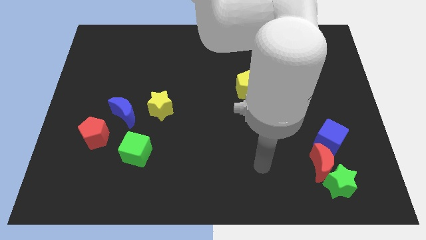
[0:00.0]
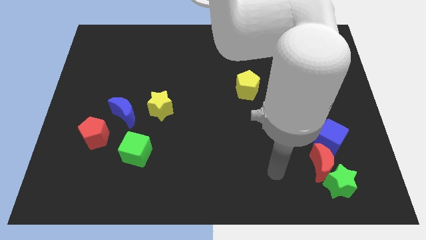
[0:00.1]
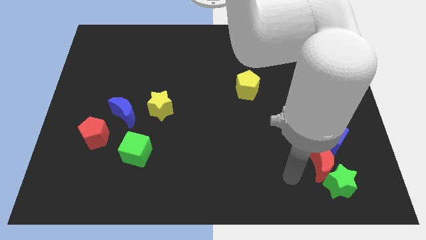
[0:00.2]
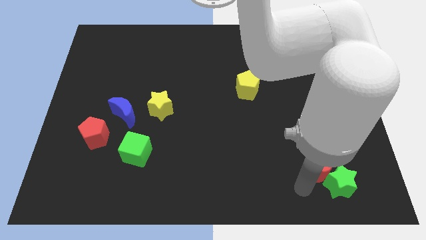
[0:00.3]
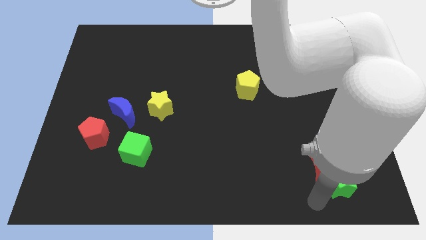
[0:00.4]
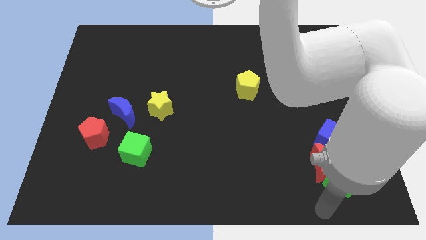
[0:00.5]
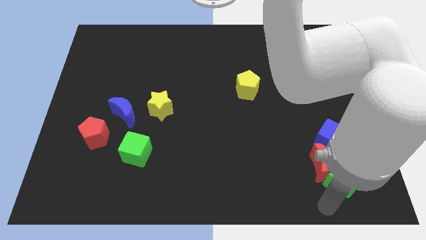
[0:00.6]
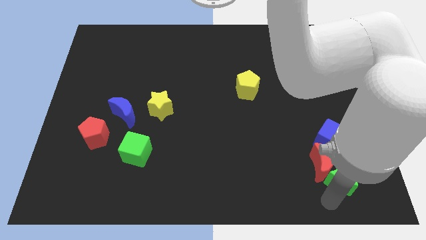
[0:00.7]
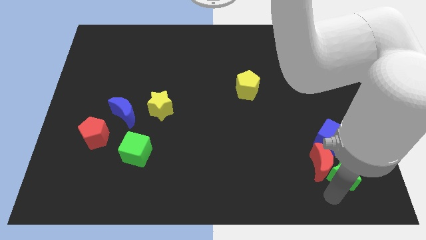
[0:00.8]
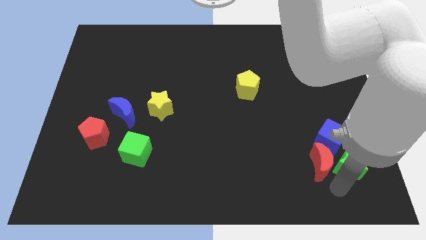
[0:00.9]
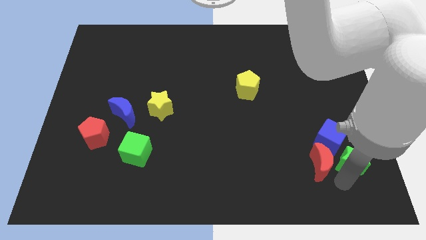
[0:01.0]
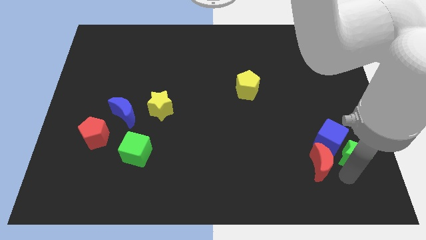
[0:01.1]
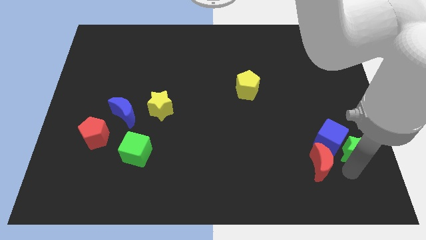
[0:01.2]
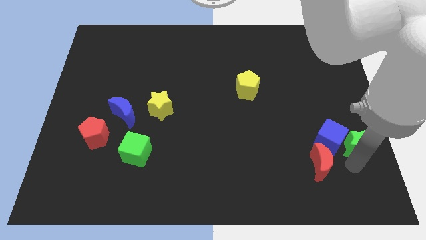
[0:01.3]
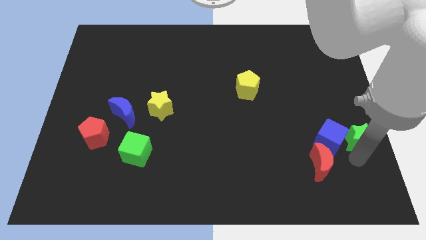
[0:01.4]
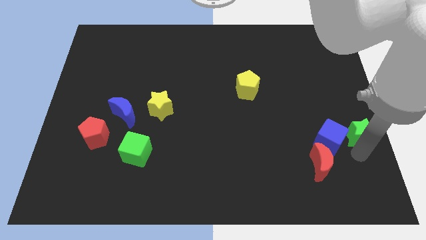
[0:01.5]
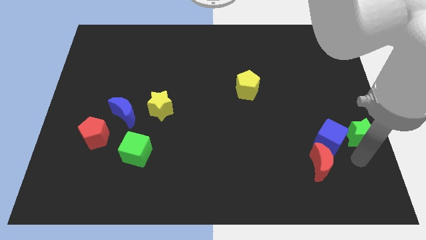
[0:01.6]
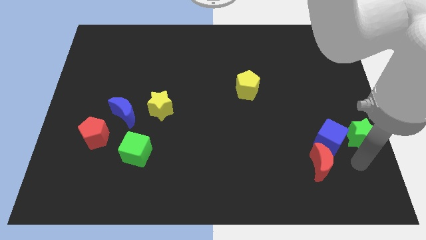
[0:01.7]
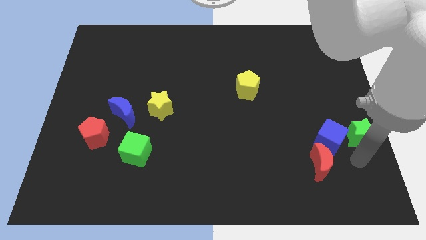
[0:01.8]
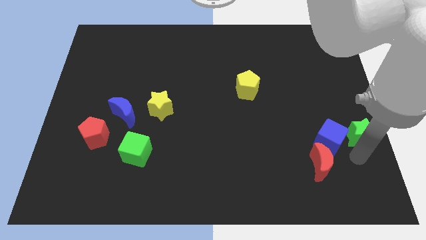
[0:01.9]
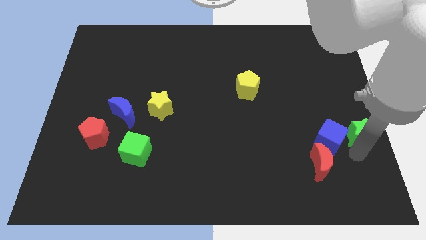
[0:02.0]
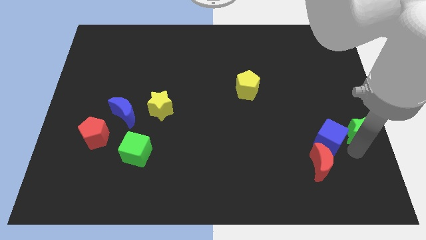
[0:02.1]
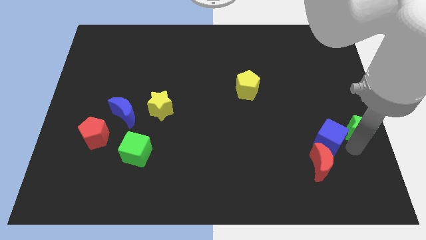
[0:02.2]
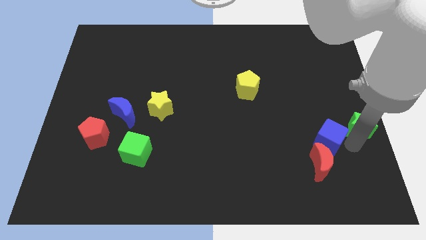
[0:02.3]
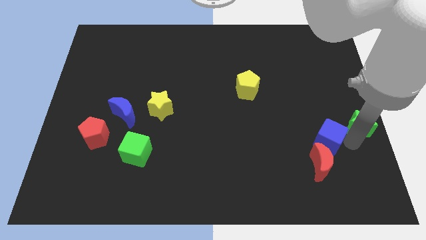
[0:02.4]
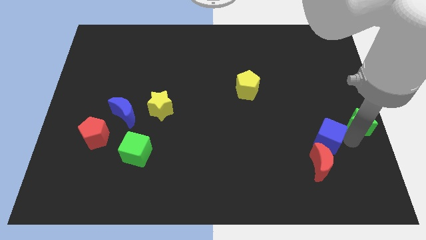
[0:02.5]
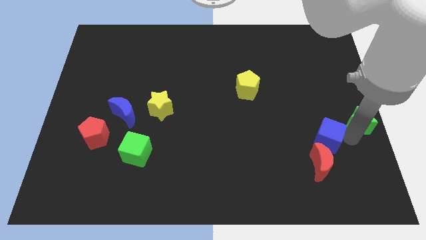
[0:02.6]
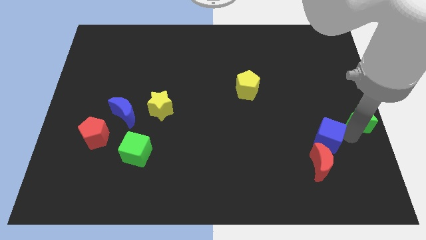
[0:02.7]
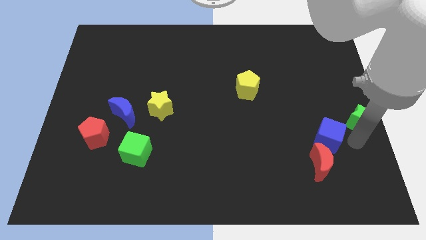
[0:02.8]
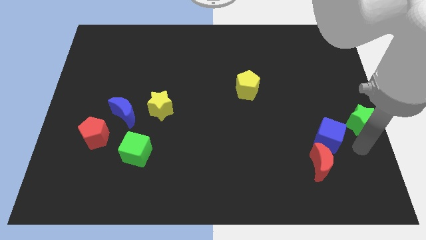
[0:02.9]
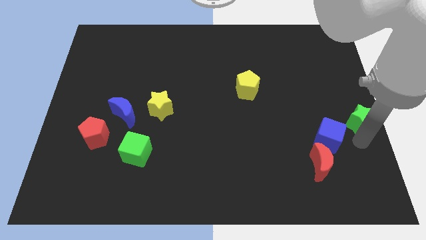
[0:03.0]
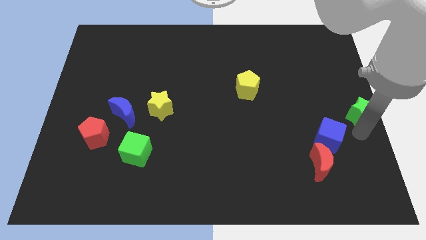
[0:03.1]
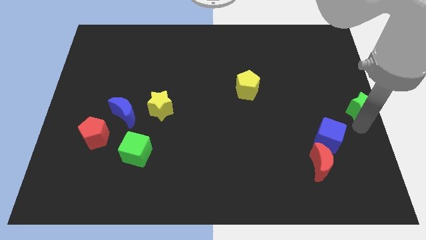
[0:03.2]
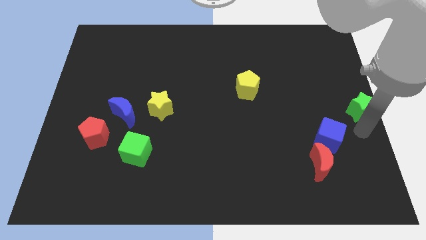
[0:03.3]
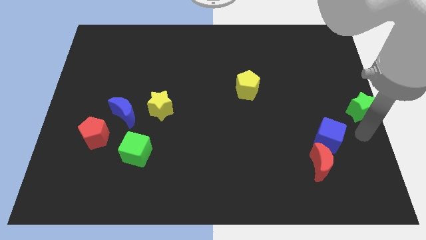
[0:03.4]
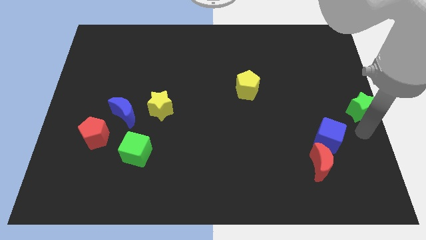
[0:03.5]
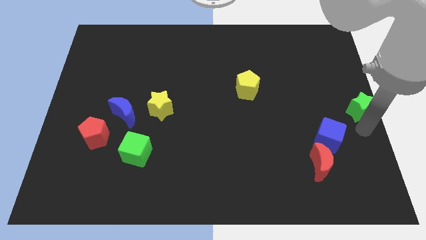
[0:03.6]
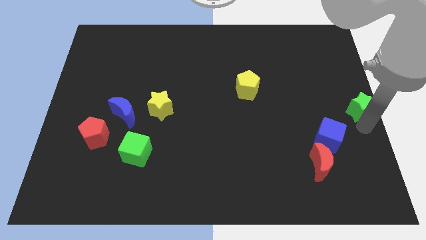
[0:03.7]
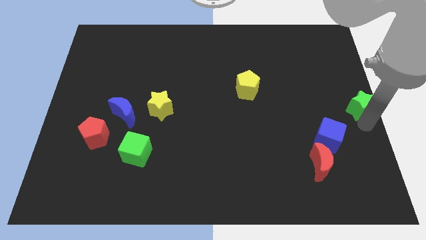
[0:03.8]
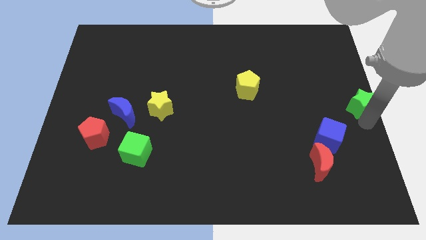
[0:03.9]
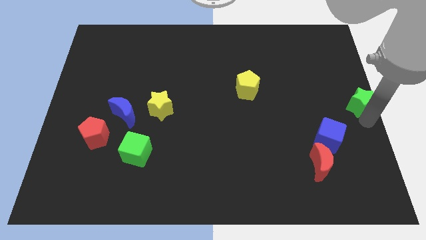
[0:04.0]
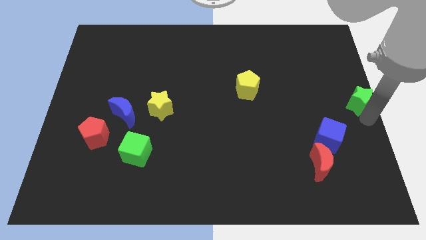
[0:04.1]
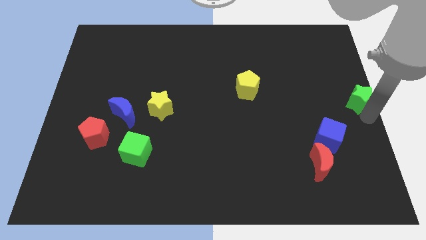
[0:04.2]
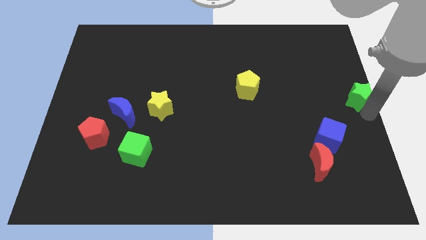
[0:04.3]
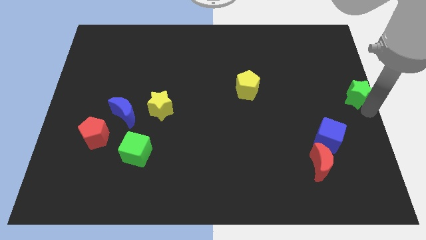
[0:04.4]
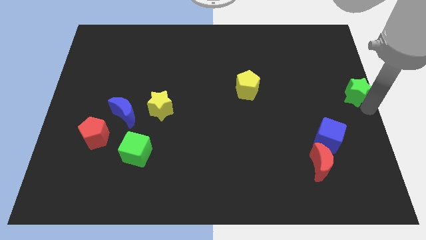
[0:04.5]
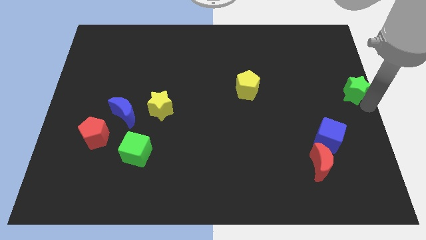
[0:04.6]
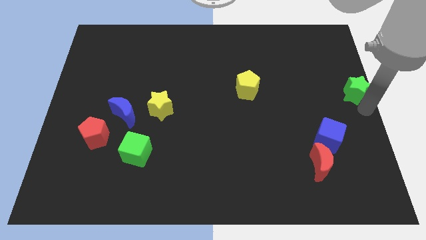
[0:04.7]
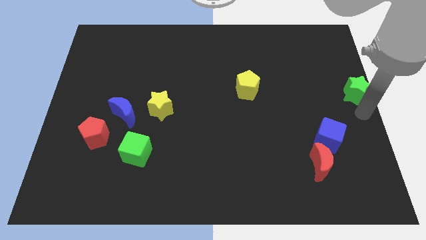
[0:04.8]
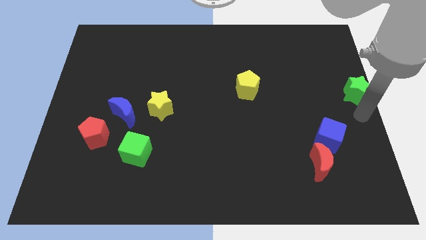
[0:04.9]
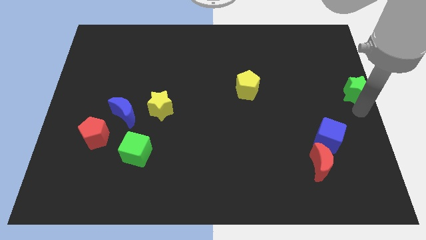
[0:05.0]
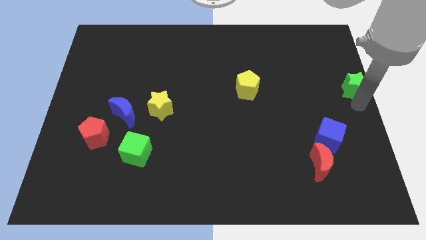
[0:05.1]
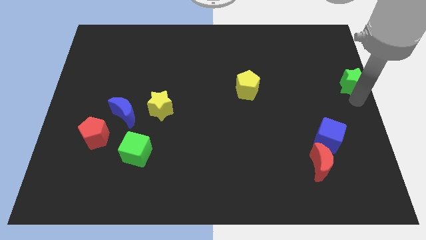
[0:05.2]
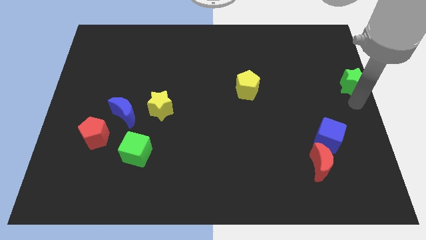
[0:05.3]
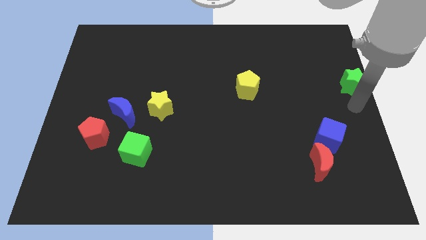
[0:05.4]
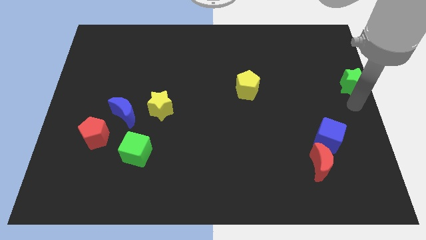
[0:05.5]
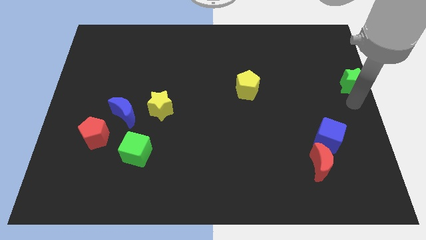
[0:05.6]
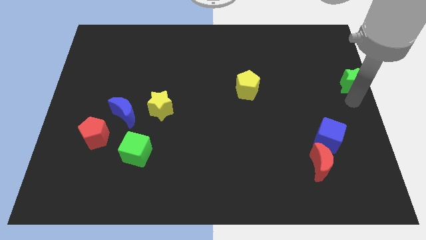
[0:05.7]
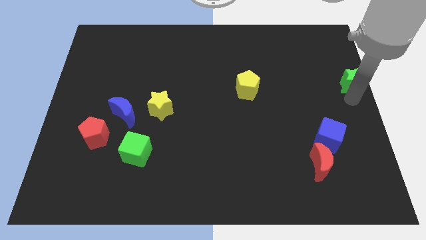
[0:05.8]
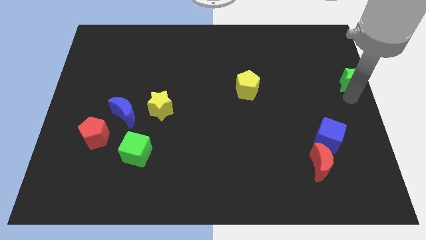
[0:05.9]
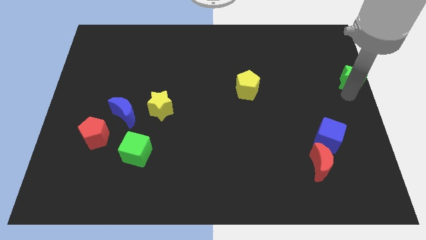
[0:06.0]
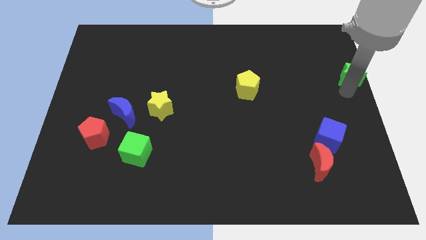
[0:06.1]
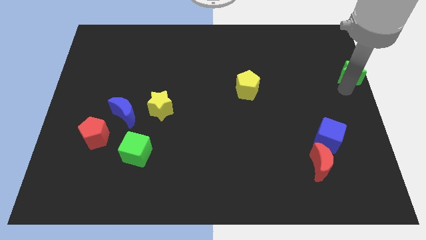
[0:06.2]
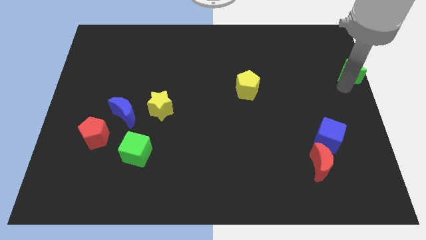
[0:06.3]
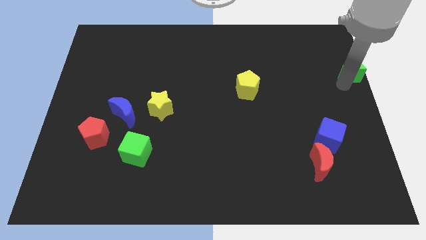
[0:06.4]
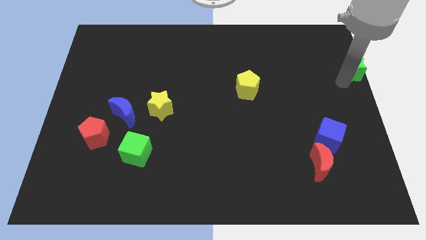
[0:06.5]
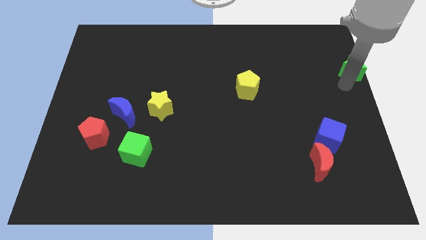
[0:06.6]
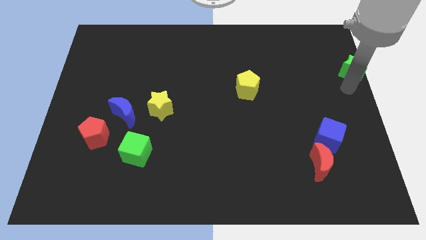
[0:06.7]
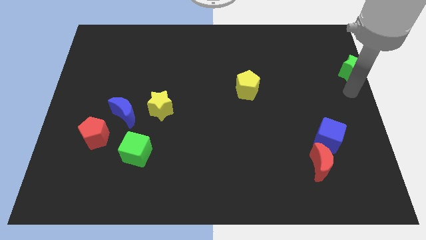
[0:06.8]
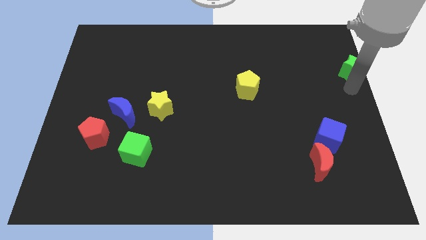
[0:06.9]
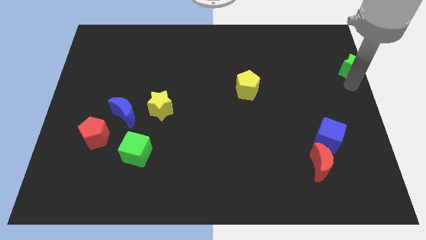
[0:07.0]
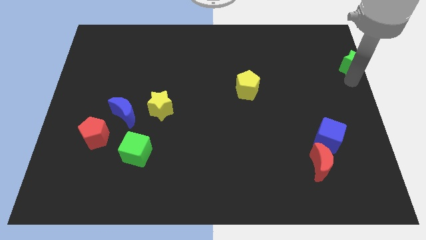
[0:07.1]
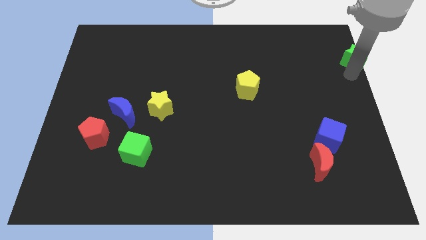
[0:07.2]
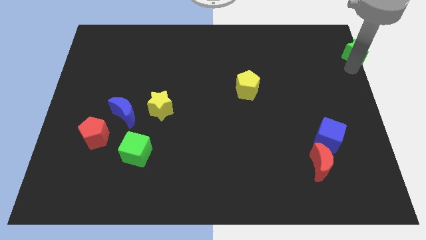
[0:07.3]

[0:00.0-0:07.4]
move the green star to the top right

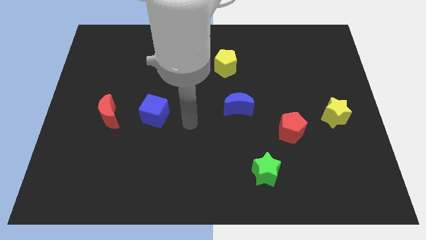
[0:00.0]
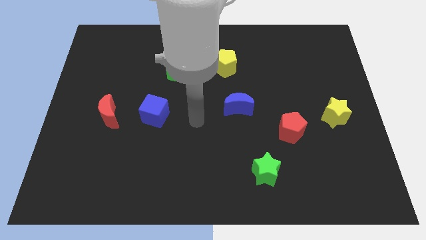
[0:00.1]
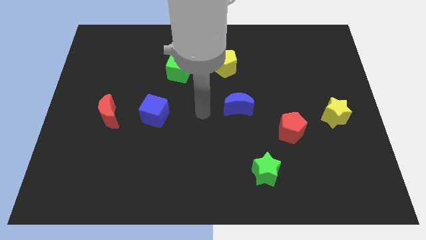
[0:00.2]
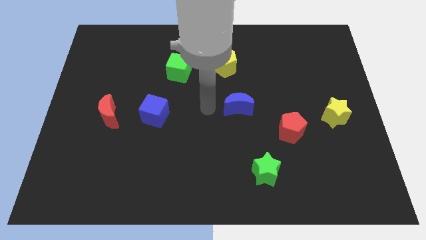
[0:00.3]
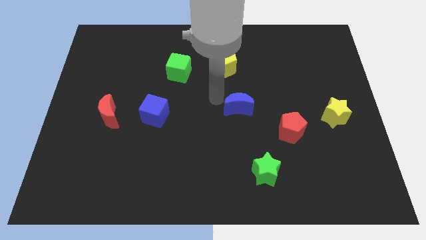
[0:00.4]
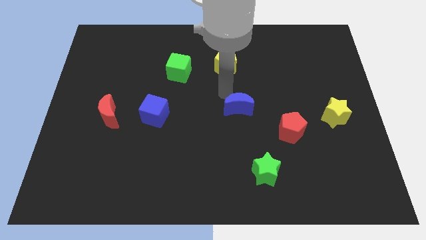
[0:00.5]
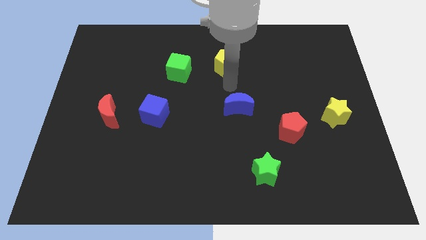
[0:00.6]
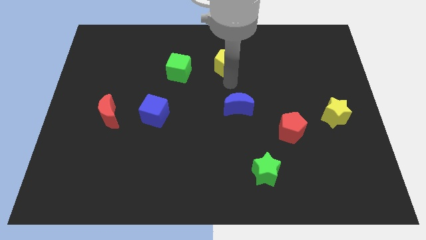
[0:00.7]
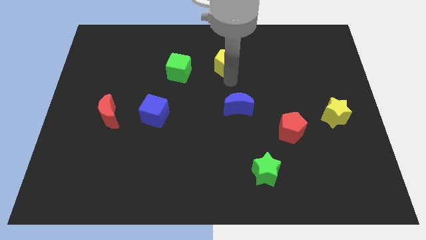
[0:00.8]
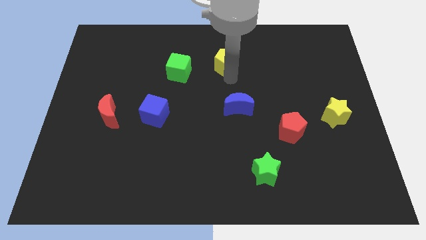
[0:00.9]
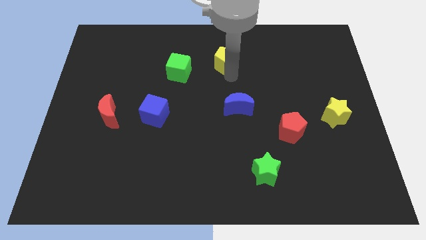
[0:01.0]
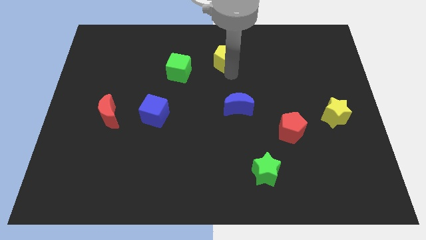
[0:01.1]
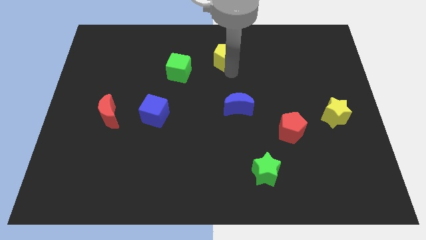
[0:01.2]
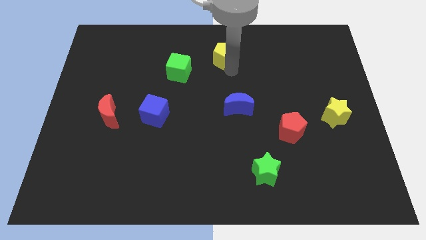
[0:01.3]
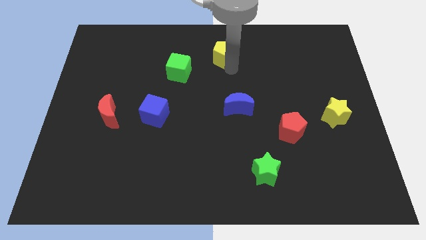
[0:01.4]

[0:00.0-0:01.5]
push the yellow pentagon to the towards your base
